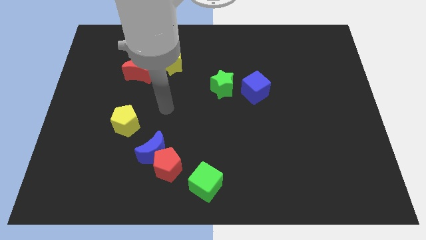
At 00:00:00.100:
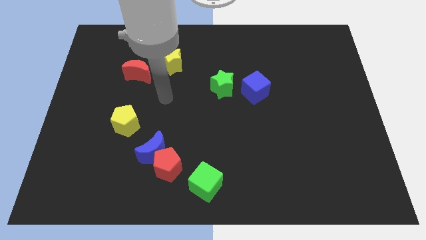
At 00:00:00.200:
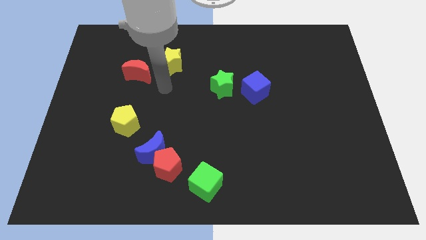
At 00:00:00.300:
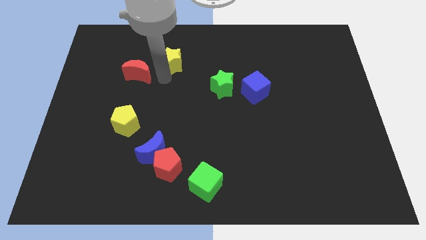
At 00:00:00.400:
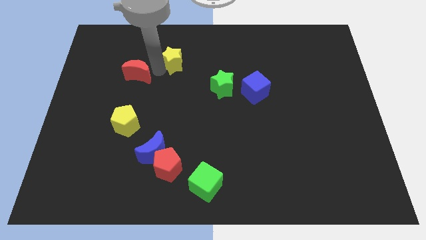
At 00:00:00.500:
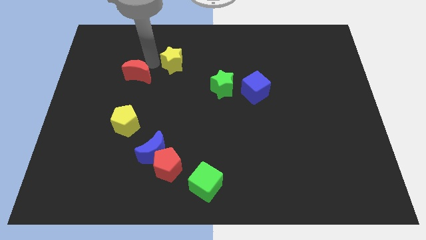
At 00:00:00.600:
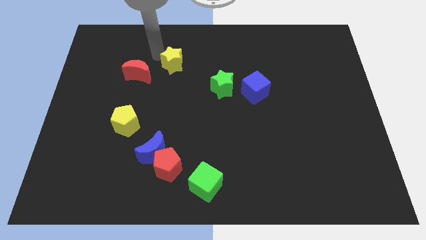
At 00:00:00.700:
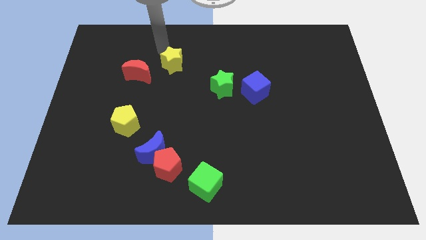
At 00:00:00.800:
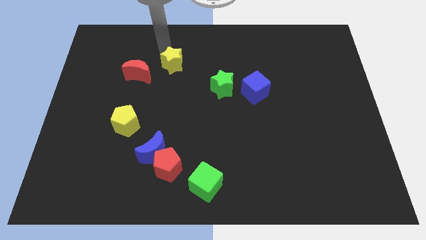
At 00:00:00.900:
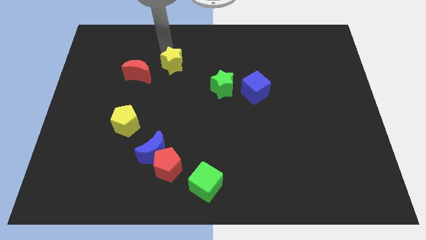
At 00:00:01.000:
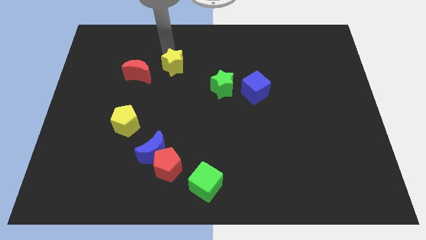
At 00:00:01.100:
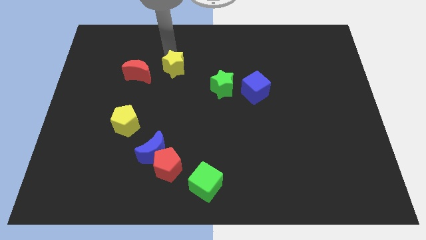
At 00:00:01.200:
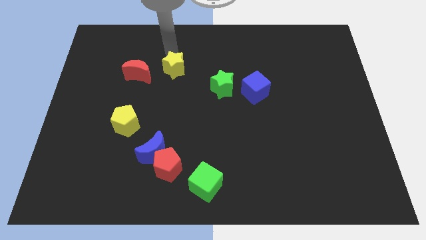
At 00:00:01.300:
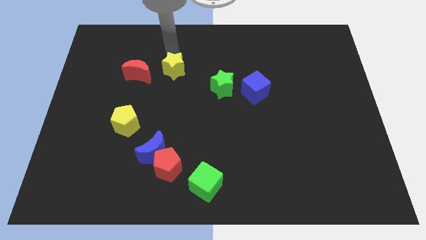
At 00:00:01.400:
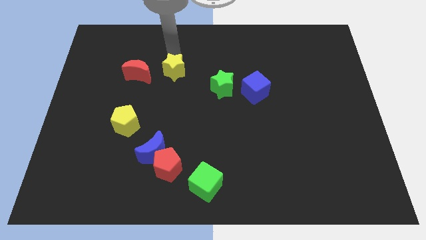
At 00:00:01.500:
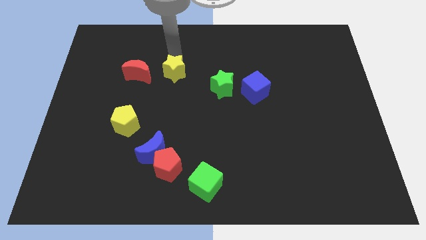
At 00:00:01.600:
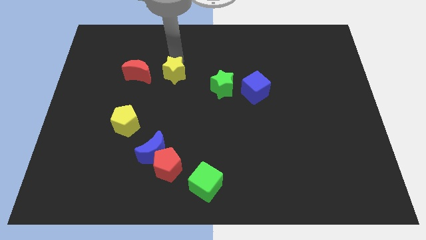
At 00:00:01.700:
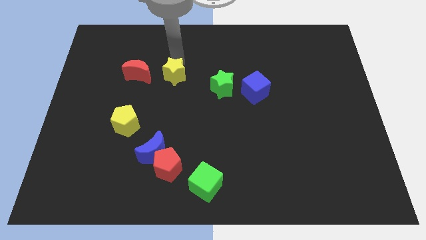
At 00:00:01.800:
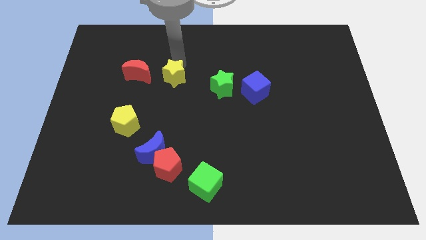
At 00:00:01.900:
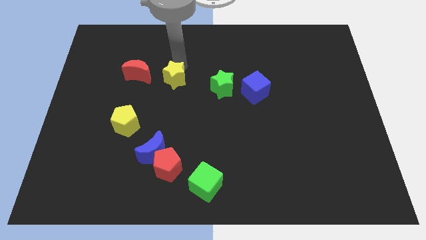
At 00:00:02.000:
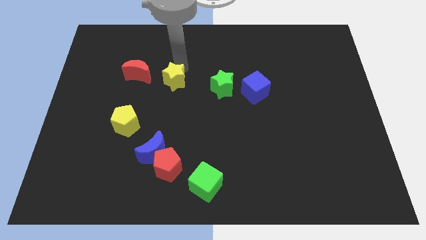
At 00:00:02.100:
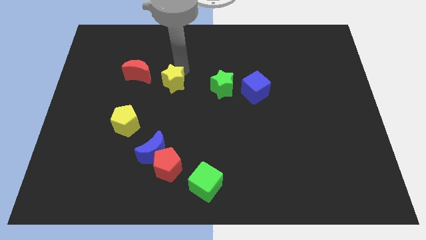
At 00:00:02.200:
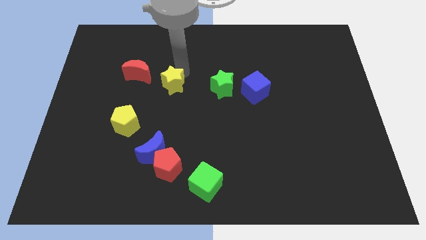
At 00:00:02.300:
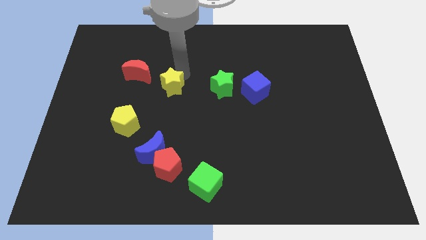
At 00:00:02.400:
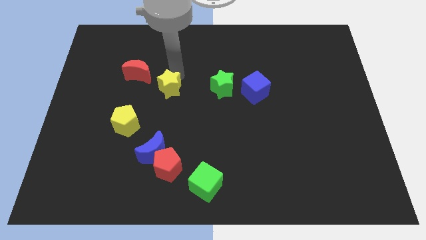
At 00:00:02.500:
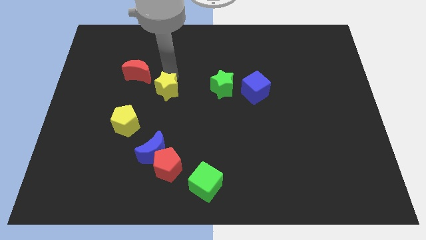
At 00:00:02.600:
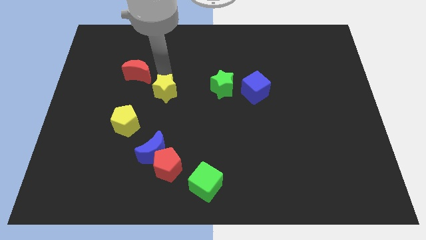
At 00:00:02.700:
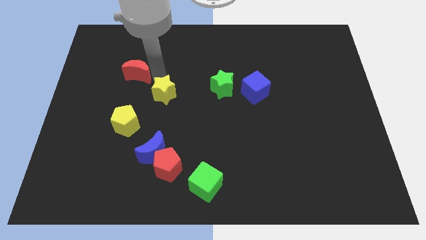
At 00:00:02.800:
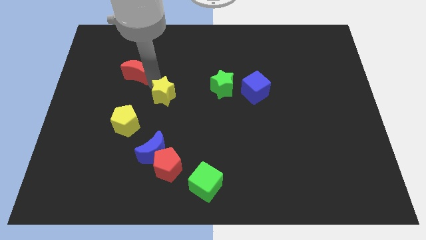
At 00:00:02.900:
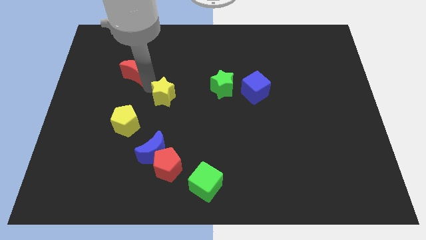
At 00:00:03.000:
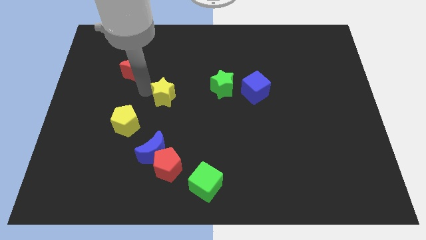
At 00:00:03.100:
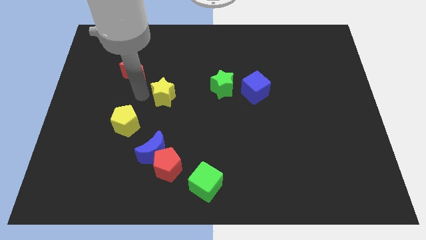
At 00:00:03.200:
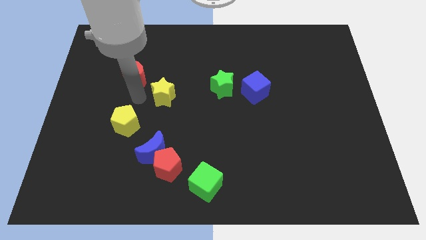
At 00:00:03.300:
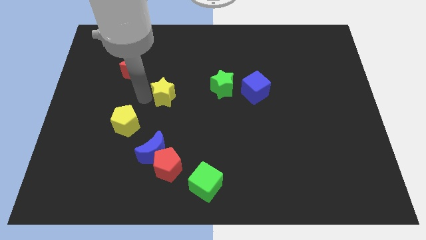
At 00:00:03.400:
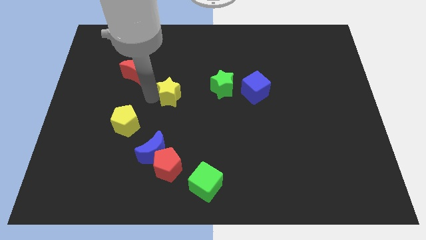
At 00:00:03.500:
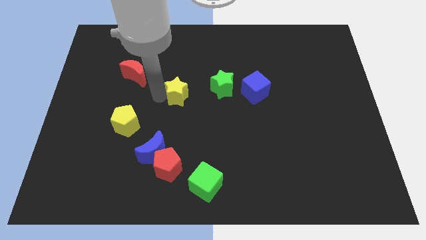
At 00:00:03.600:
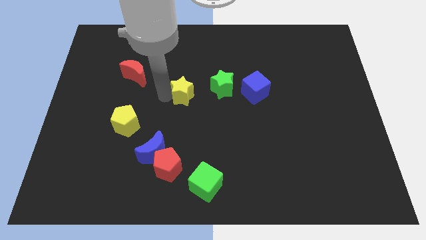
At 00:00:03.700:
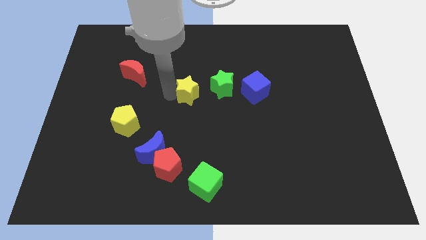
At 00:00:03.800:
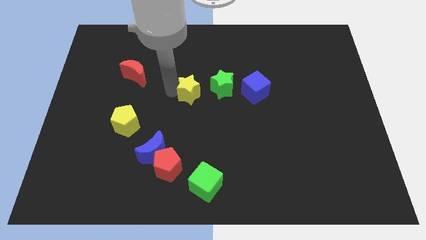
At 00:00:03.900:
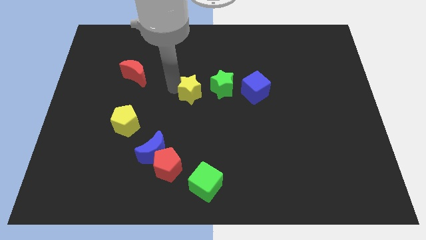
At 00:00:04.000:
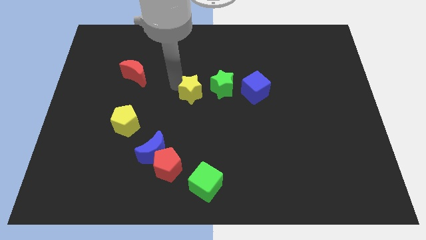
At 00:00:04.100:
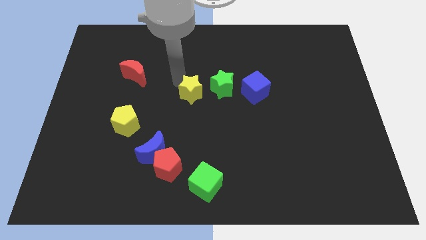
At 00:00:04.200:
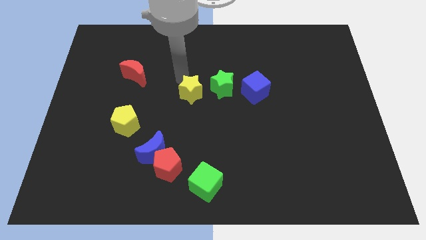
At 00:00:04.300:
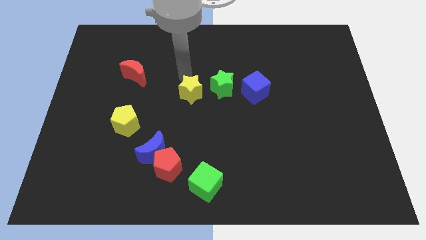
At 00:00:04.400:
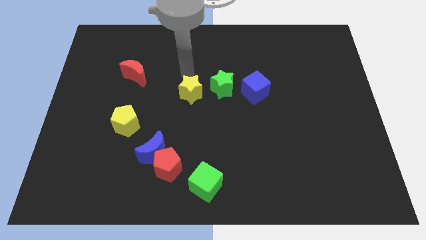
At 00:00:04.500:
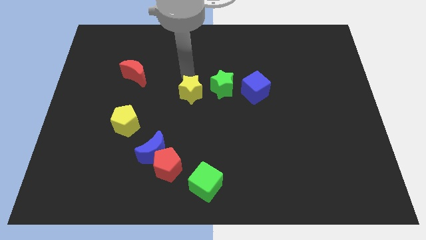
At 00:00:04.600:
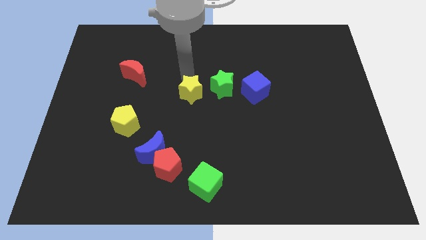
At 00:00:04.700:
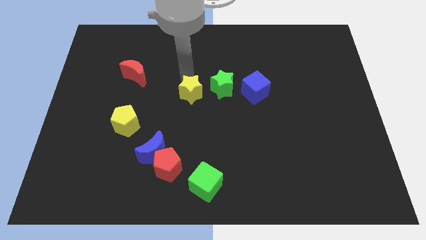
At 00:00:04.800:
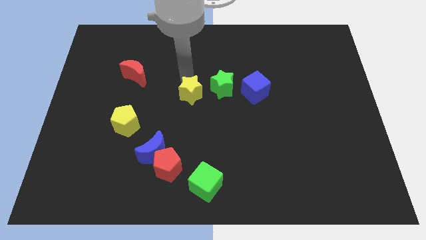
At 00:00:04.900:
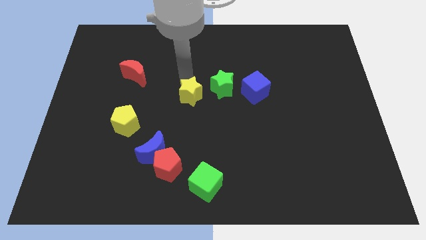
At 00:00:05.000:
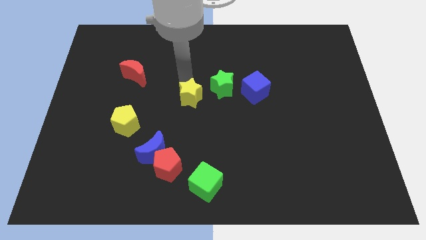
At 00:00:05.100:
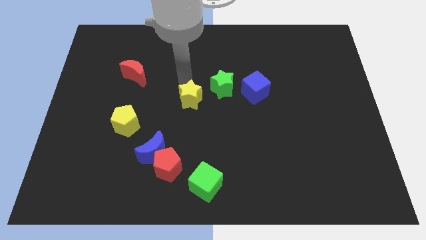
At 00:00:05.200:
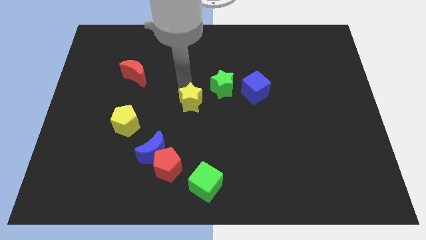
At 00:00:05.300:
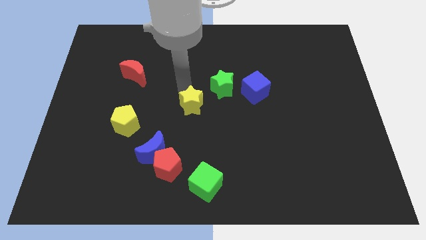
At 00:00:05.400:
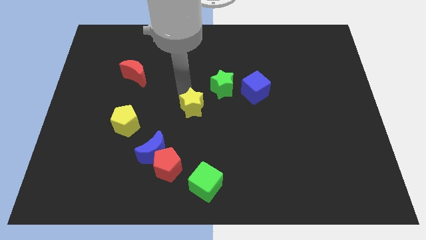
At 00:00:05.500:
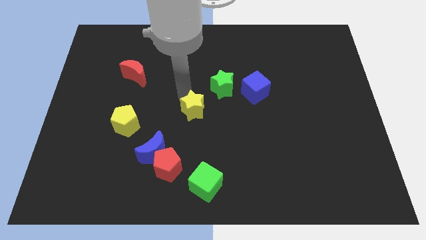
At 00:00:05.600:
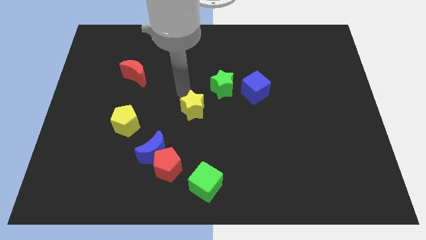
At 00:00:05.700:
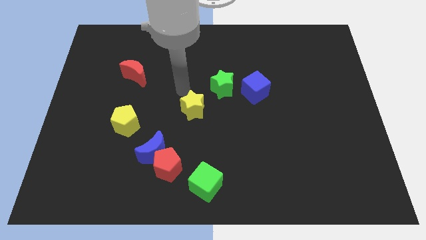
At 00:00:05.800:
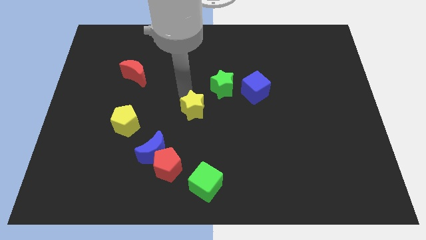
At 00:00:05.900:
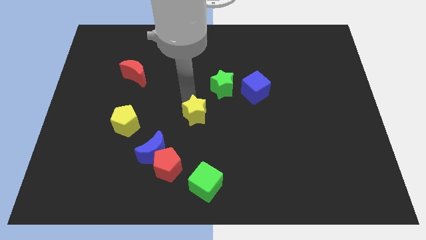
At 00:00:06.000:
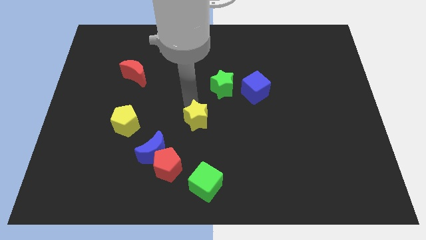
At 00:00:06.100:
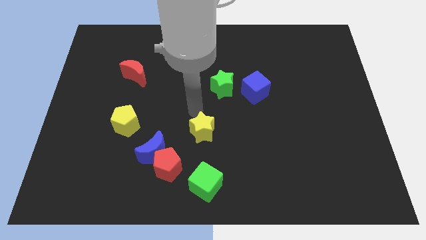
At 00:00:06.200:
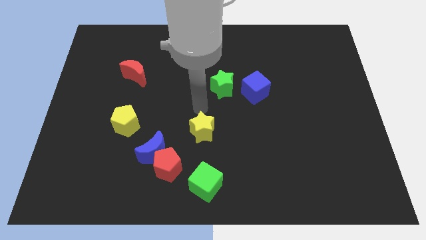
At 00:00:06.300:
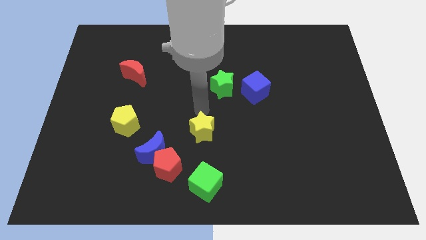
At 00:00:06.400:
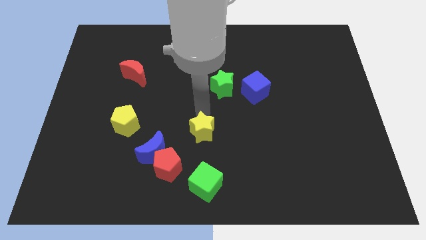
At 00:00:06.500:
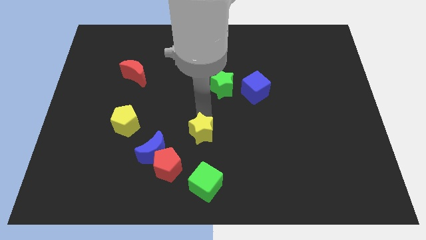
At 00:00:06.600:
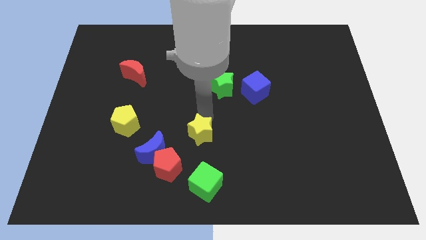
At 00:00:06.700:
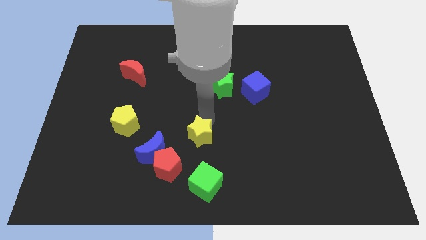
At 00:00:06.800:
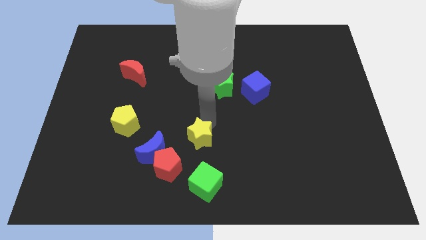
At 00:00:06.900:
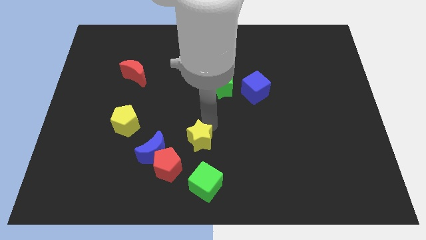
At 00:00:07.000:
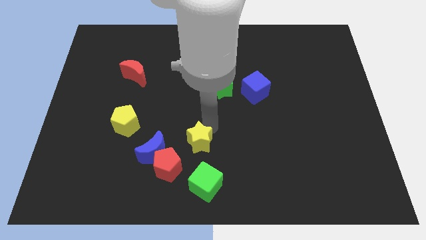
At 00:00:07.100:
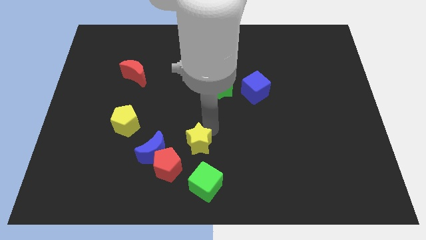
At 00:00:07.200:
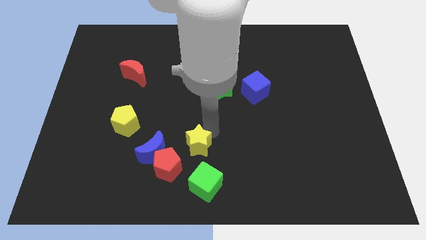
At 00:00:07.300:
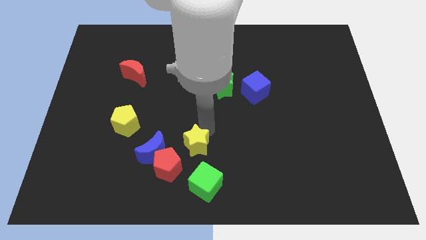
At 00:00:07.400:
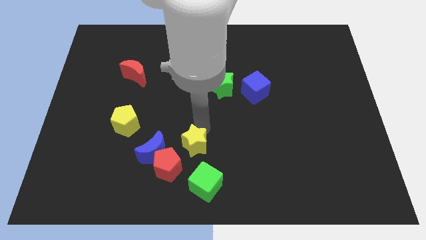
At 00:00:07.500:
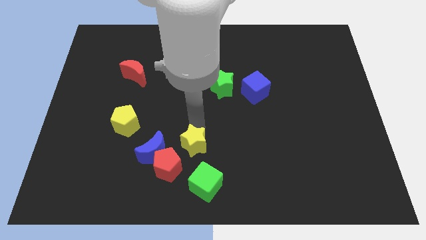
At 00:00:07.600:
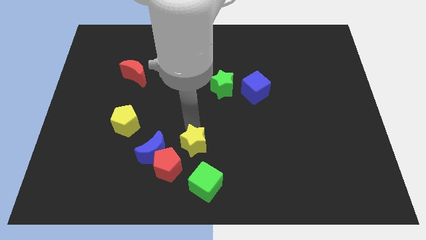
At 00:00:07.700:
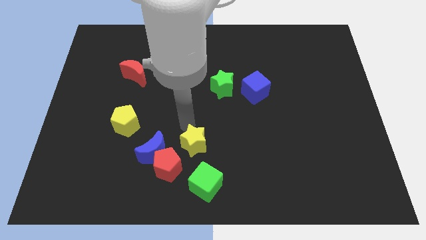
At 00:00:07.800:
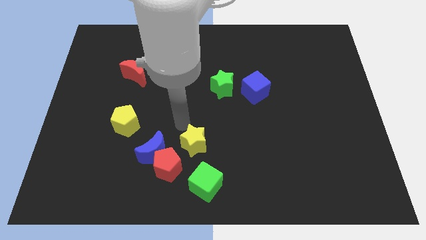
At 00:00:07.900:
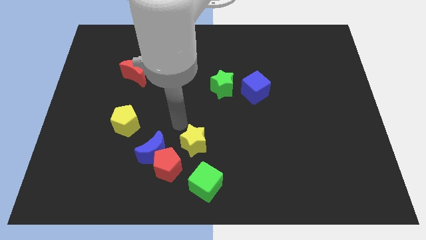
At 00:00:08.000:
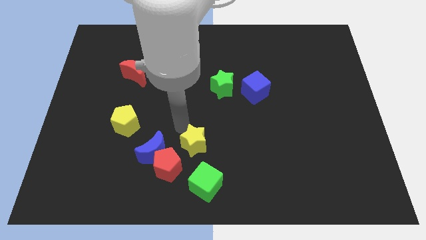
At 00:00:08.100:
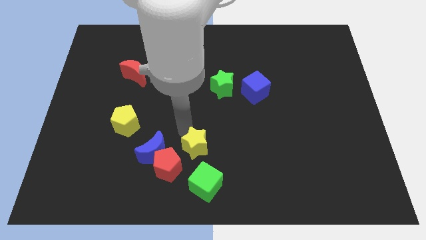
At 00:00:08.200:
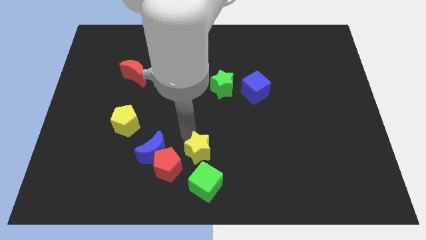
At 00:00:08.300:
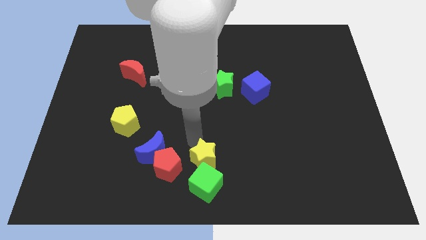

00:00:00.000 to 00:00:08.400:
push the yellow star to the green cube
